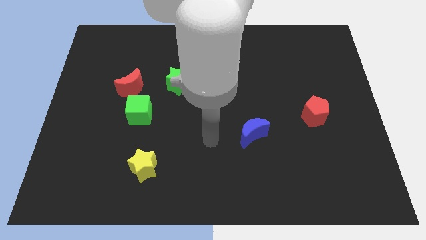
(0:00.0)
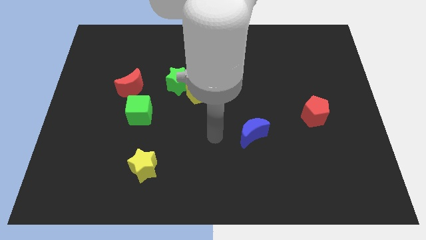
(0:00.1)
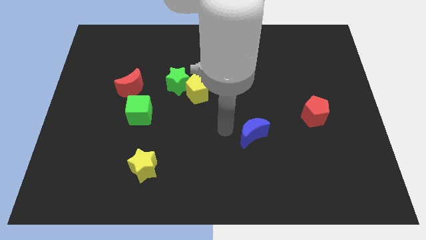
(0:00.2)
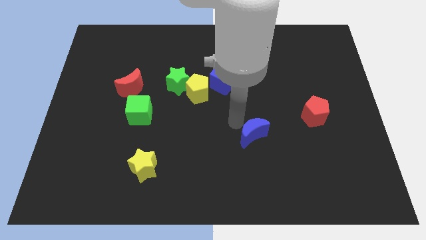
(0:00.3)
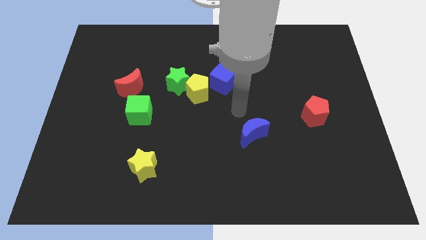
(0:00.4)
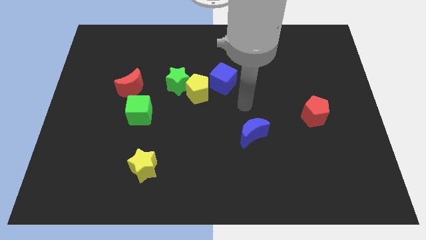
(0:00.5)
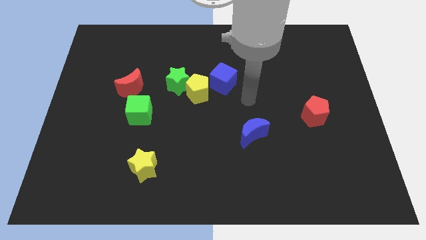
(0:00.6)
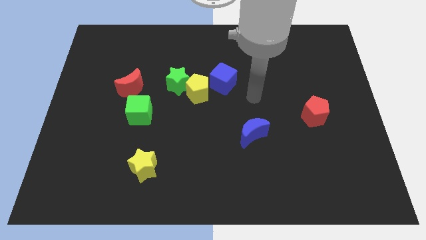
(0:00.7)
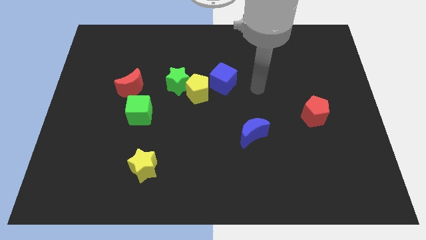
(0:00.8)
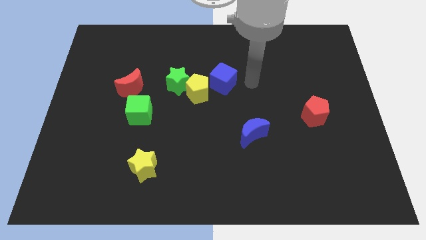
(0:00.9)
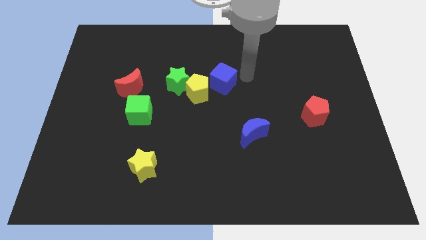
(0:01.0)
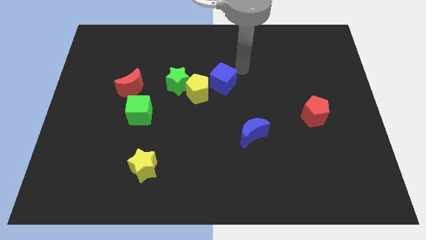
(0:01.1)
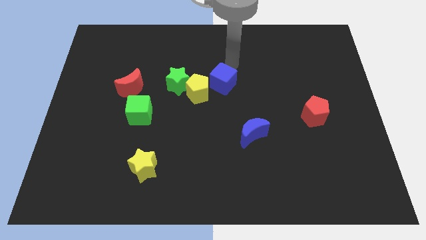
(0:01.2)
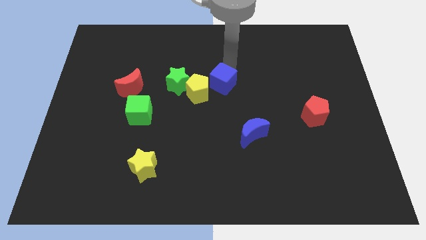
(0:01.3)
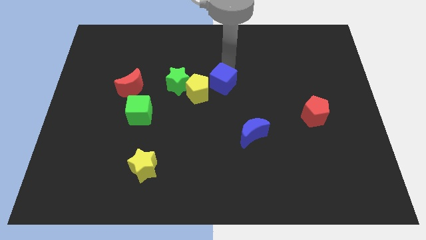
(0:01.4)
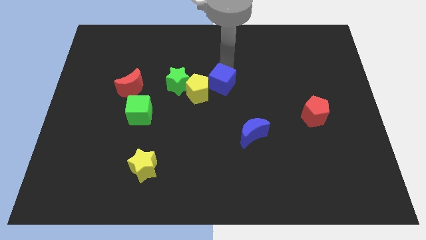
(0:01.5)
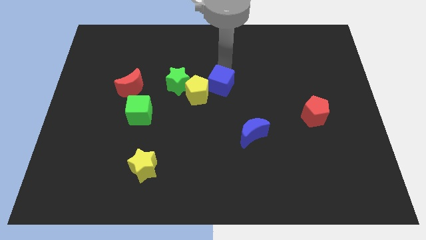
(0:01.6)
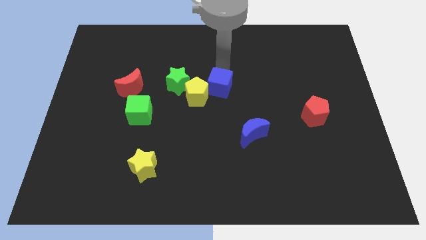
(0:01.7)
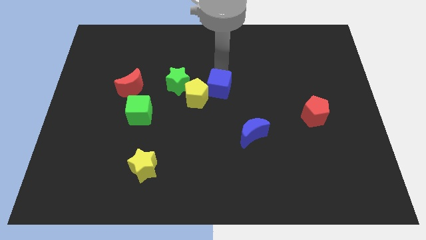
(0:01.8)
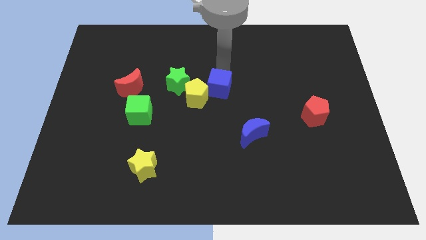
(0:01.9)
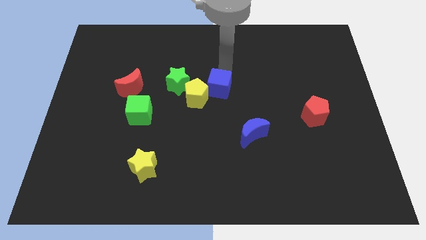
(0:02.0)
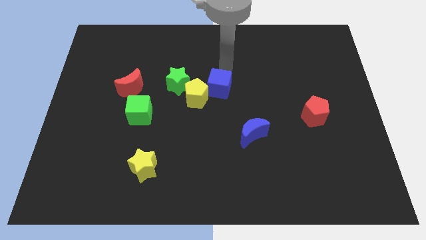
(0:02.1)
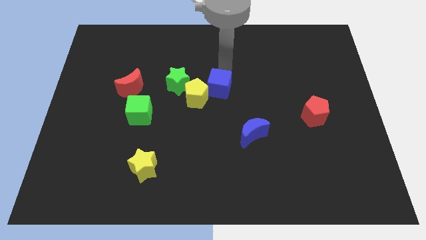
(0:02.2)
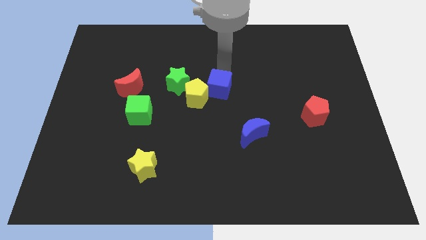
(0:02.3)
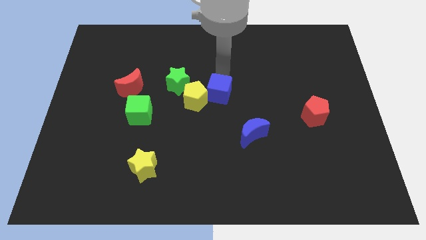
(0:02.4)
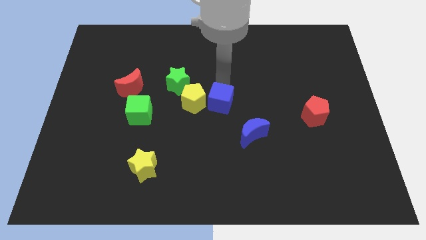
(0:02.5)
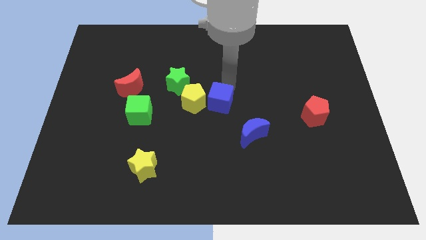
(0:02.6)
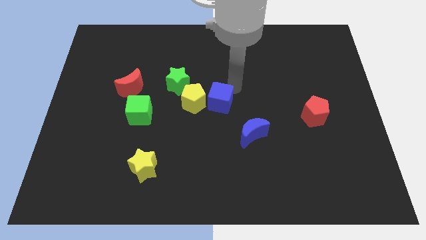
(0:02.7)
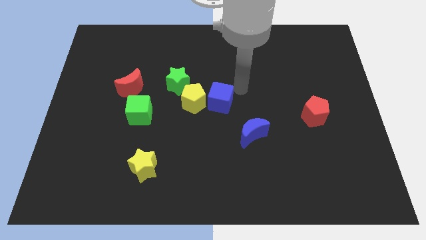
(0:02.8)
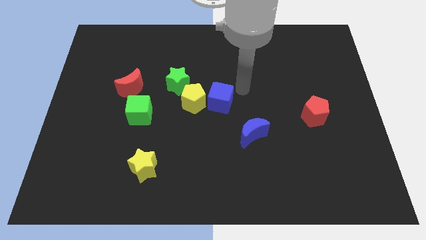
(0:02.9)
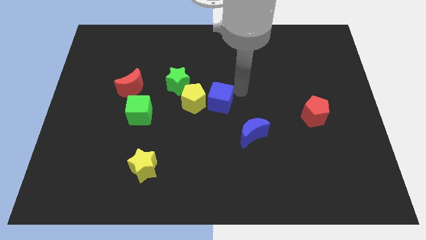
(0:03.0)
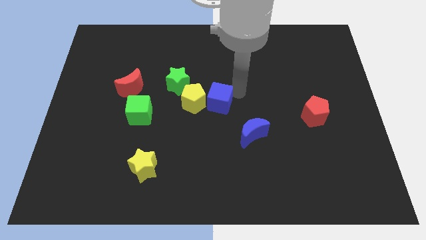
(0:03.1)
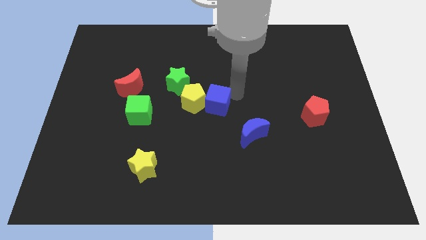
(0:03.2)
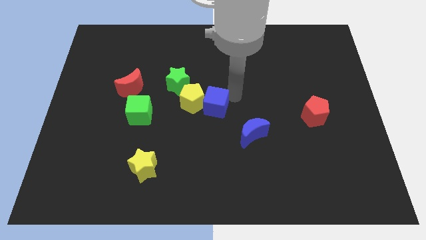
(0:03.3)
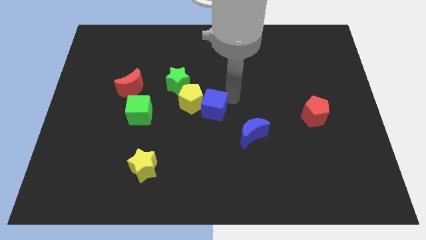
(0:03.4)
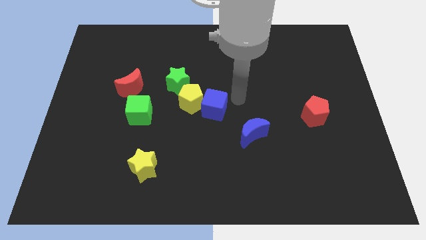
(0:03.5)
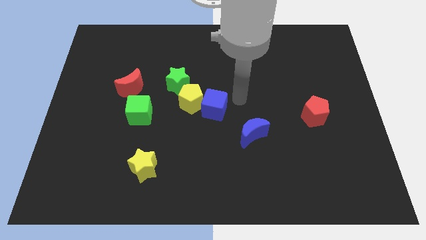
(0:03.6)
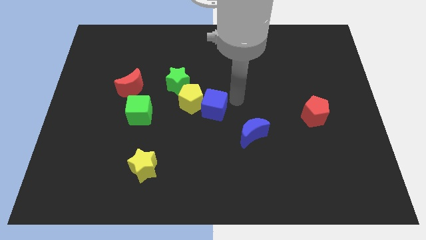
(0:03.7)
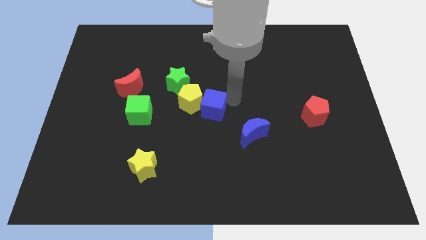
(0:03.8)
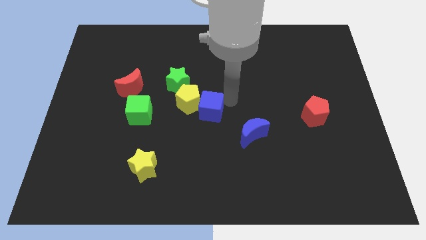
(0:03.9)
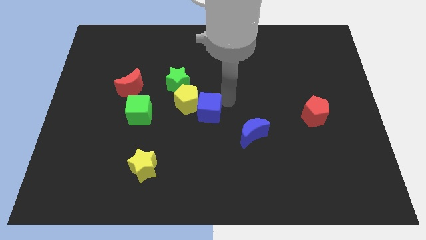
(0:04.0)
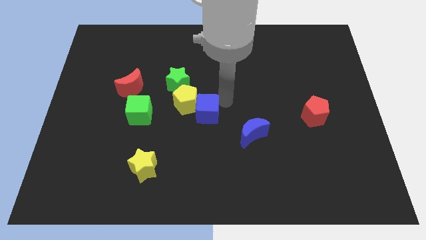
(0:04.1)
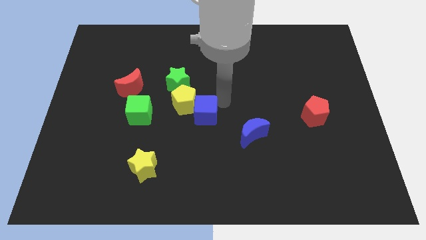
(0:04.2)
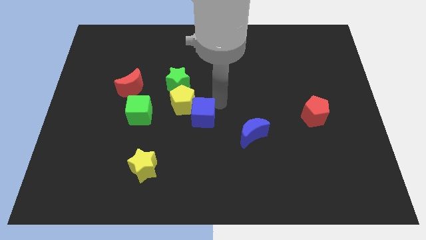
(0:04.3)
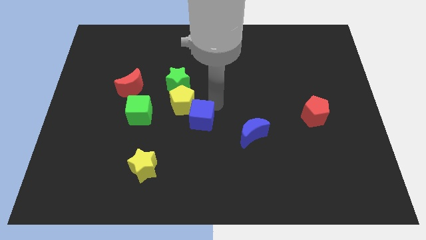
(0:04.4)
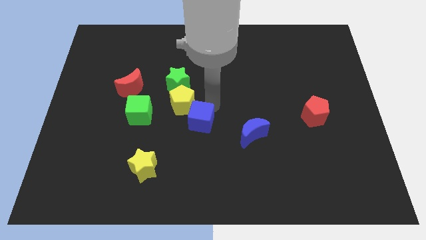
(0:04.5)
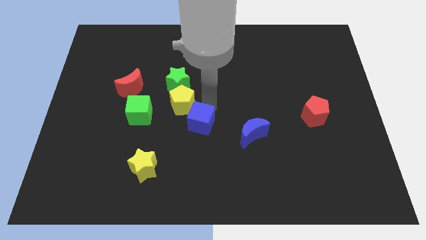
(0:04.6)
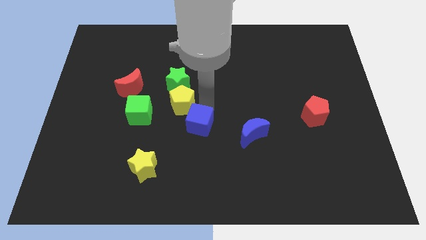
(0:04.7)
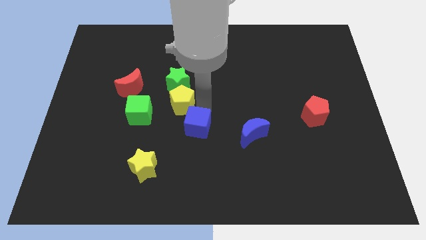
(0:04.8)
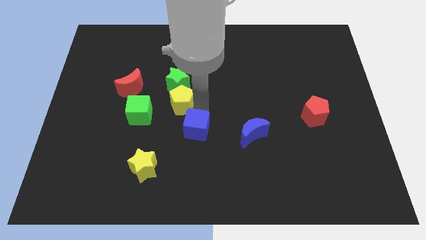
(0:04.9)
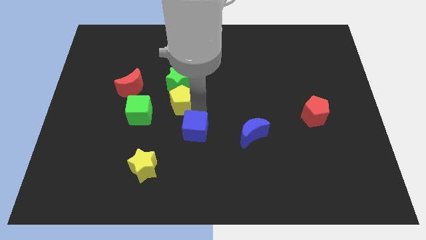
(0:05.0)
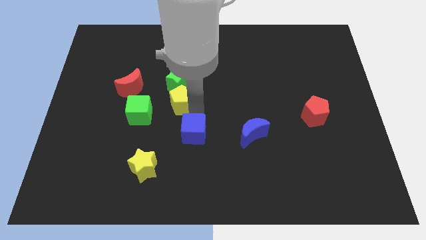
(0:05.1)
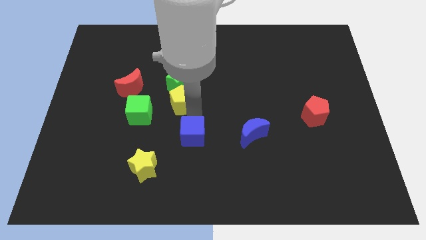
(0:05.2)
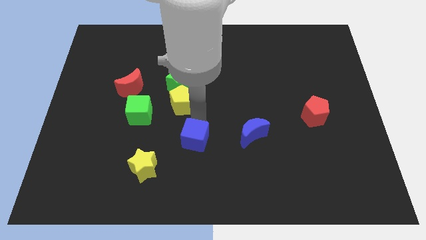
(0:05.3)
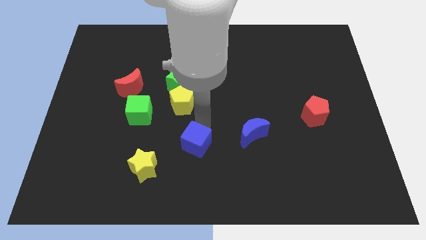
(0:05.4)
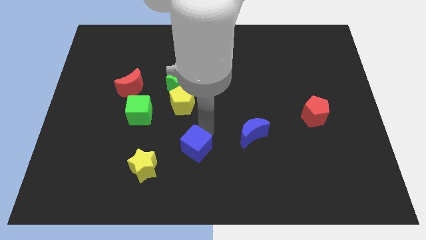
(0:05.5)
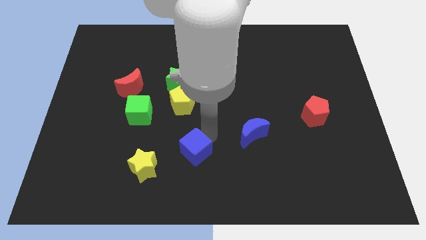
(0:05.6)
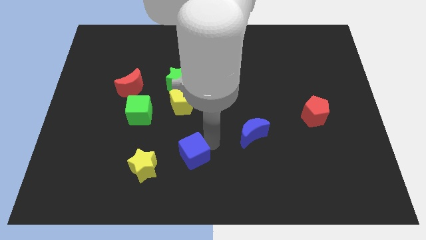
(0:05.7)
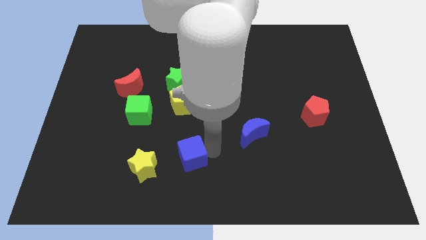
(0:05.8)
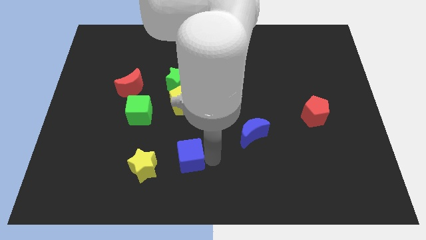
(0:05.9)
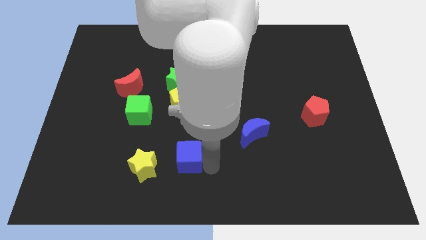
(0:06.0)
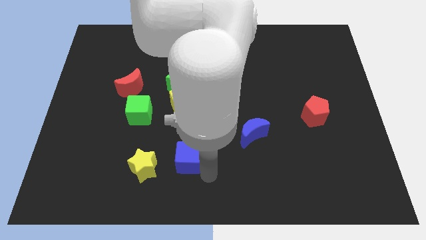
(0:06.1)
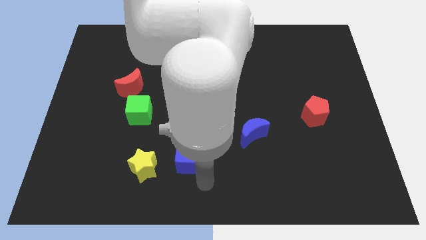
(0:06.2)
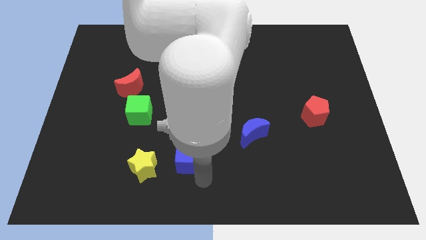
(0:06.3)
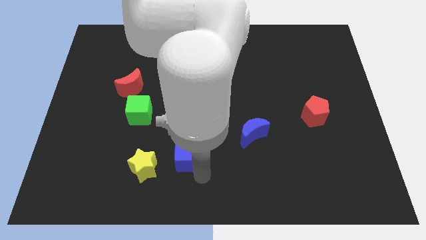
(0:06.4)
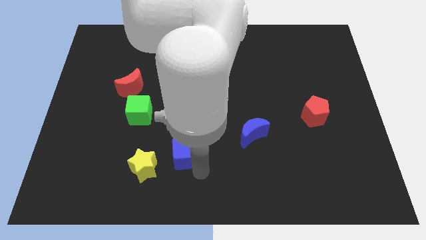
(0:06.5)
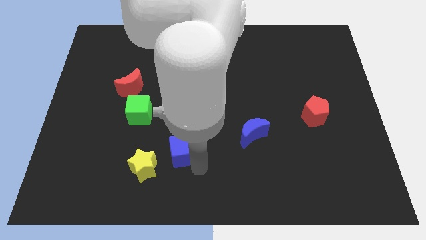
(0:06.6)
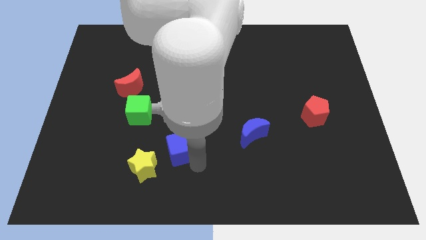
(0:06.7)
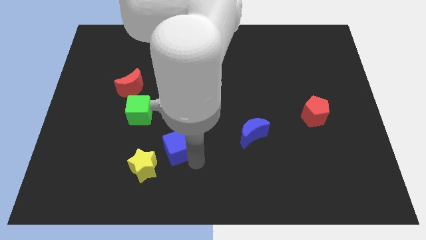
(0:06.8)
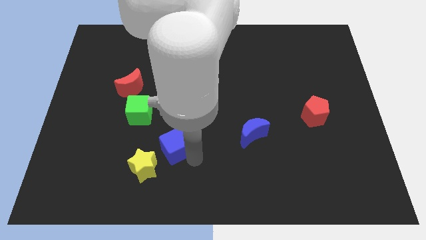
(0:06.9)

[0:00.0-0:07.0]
move the blue cube downwards and left

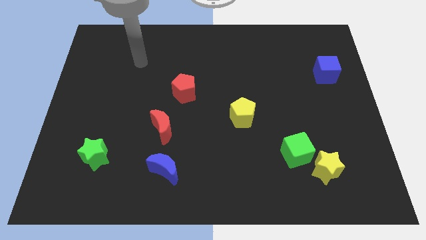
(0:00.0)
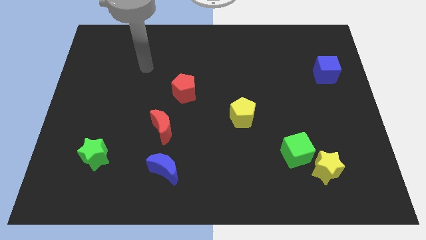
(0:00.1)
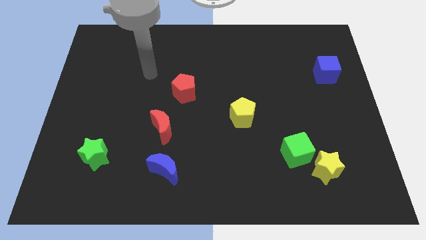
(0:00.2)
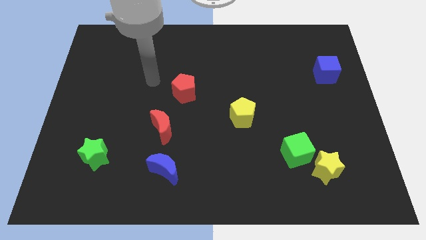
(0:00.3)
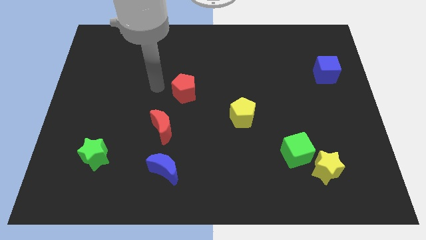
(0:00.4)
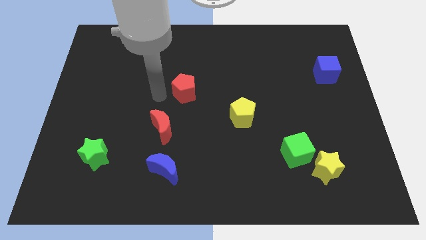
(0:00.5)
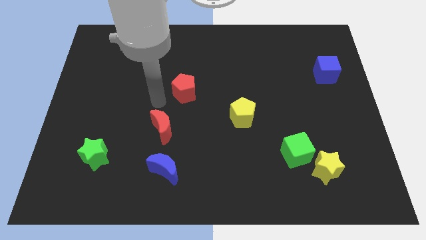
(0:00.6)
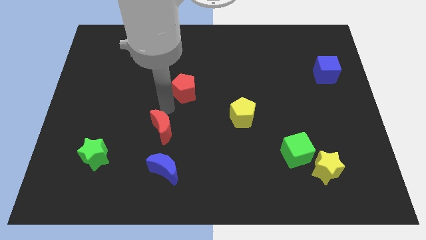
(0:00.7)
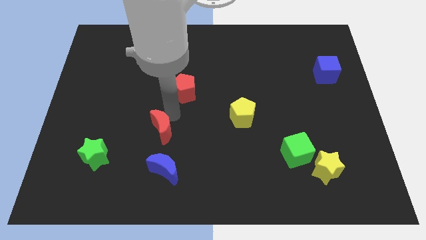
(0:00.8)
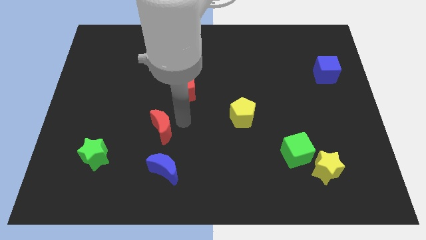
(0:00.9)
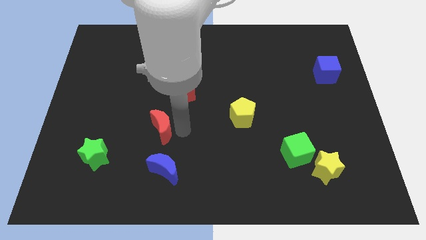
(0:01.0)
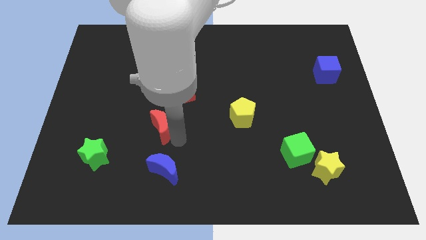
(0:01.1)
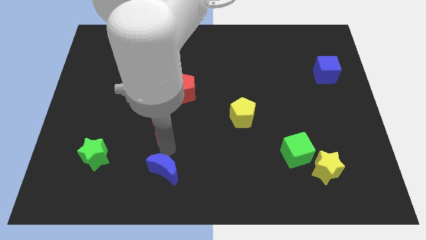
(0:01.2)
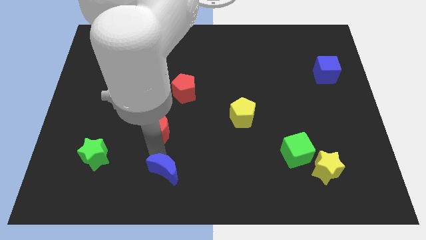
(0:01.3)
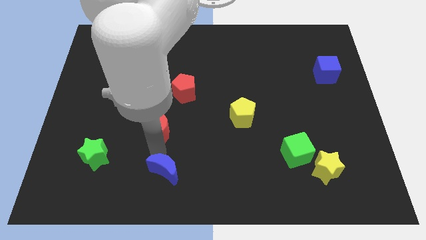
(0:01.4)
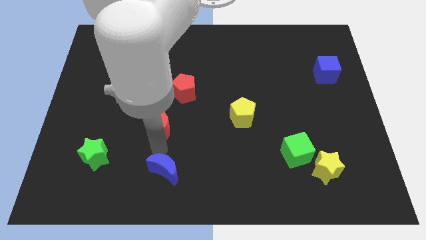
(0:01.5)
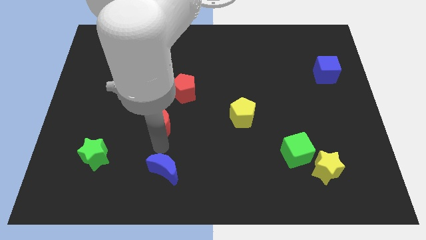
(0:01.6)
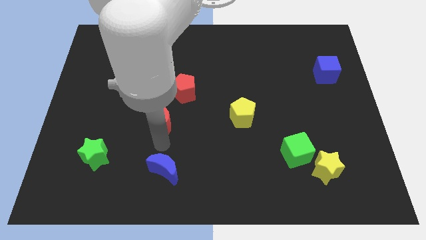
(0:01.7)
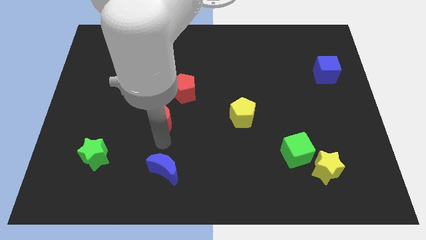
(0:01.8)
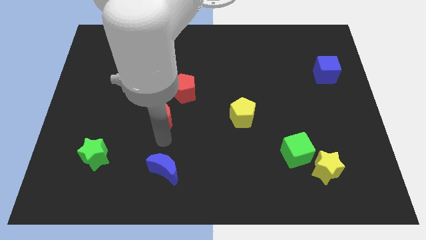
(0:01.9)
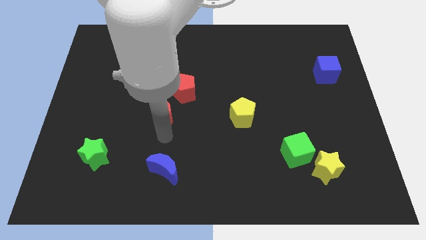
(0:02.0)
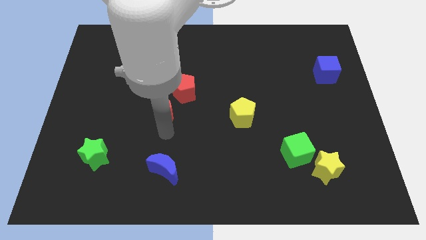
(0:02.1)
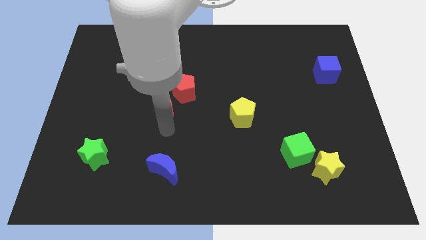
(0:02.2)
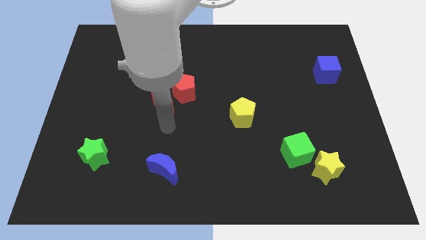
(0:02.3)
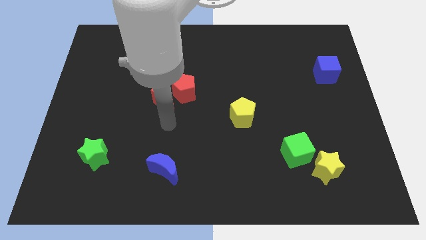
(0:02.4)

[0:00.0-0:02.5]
slide the red moon slightly up
